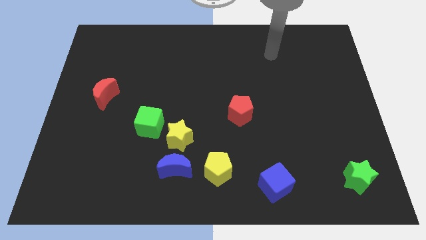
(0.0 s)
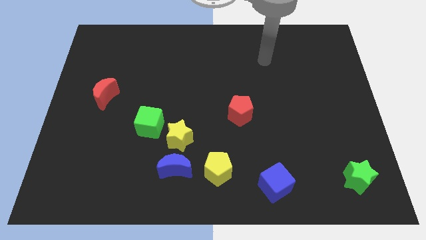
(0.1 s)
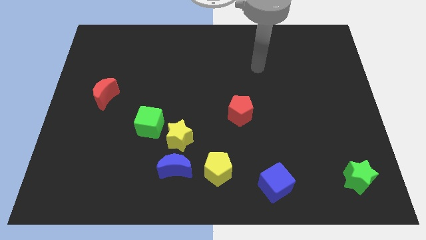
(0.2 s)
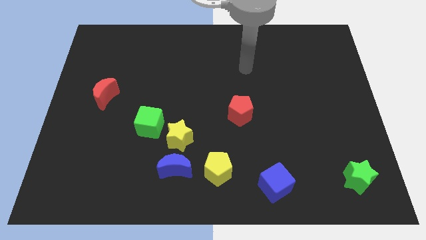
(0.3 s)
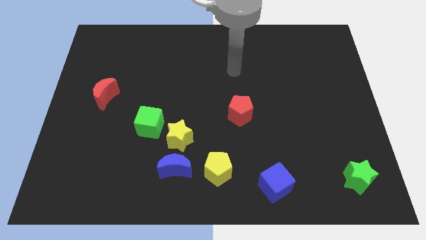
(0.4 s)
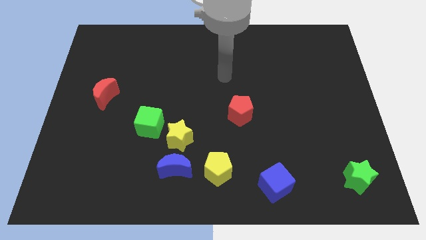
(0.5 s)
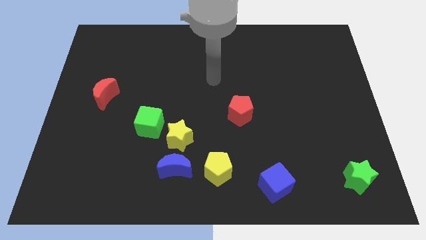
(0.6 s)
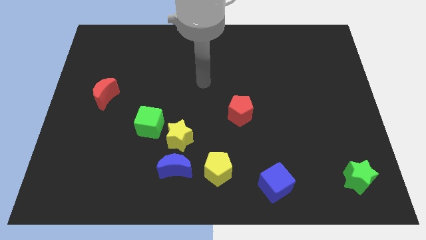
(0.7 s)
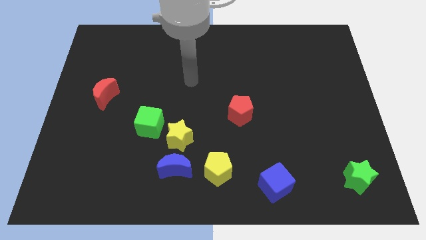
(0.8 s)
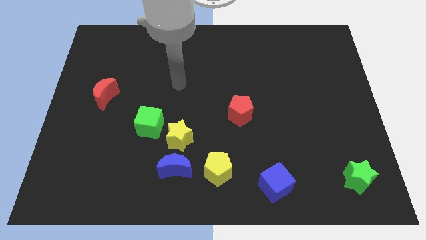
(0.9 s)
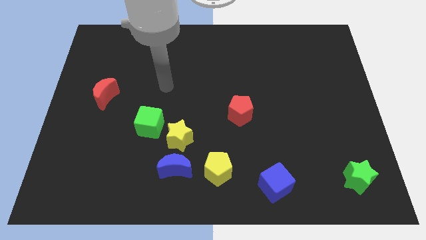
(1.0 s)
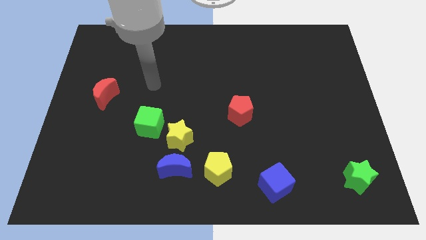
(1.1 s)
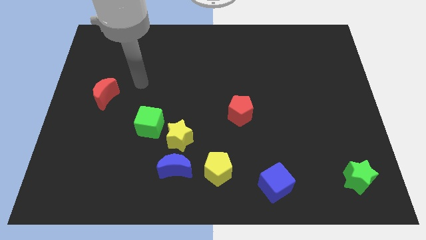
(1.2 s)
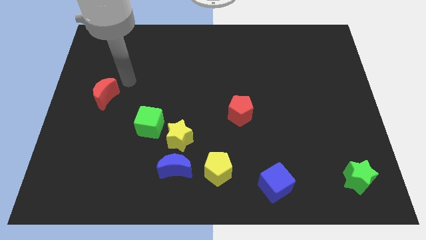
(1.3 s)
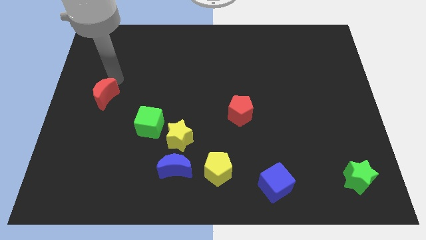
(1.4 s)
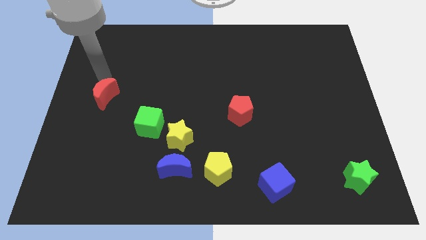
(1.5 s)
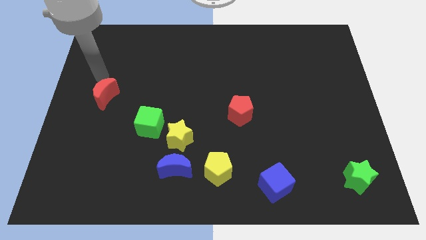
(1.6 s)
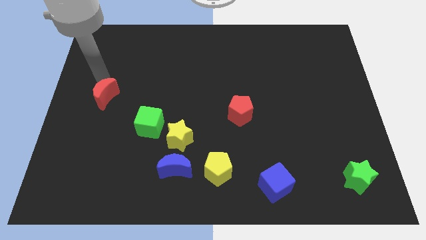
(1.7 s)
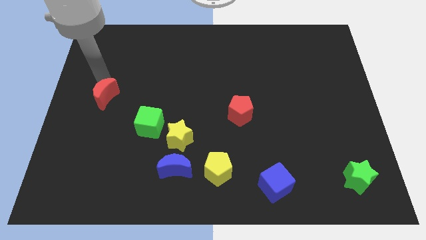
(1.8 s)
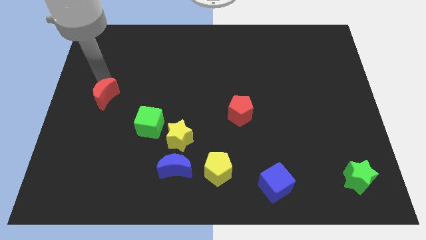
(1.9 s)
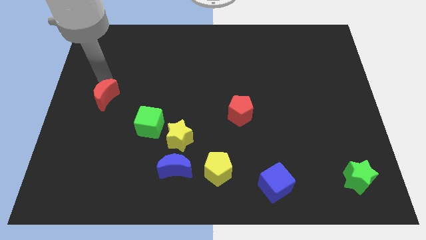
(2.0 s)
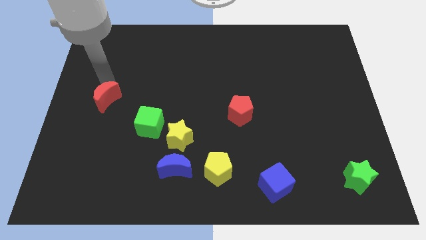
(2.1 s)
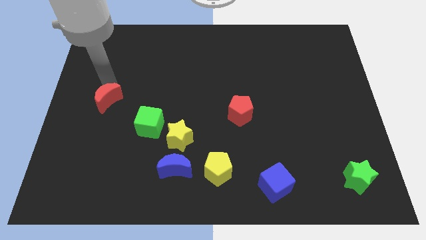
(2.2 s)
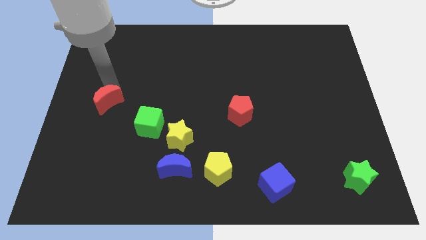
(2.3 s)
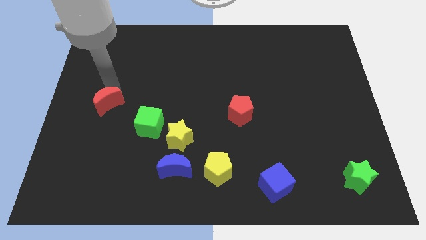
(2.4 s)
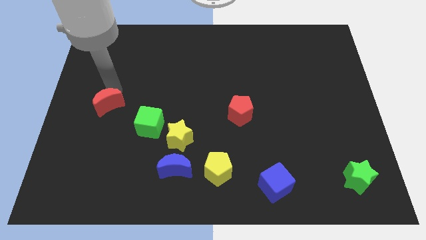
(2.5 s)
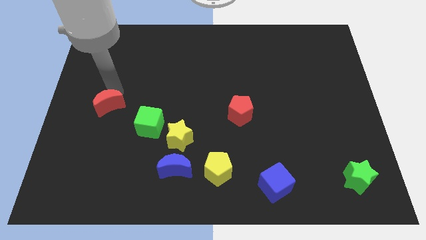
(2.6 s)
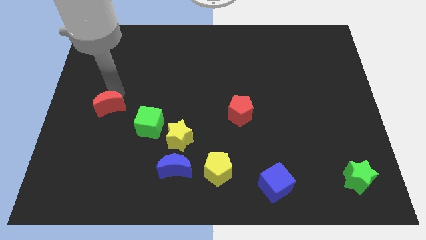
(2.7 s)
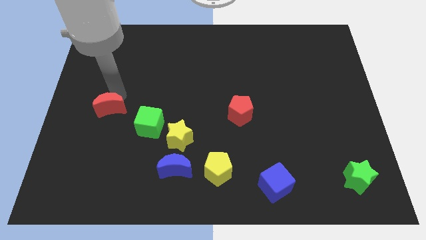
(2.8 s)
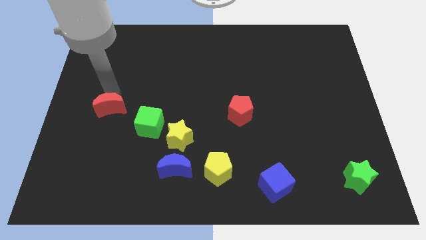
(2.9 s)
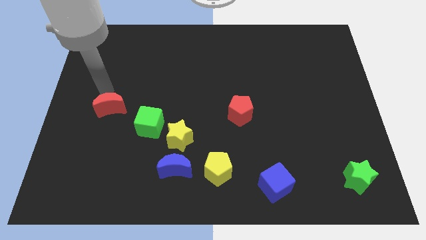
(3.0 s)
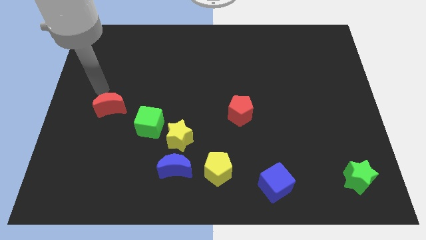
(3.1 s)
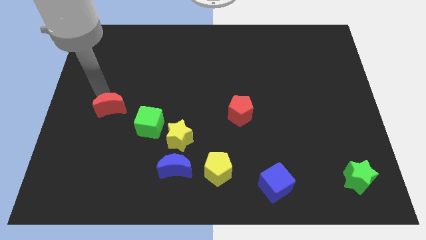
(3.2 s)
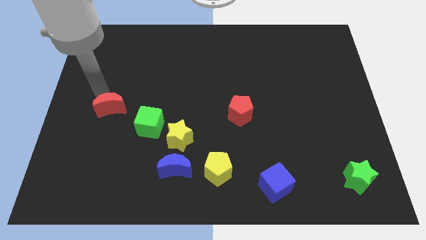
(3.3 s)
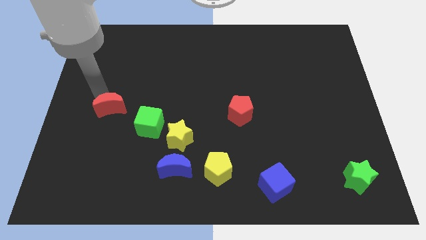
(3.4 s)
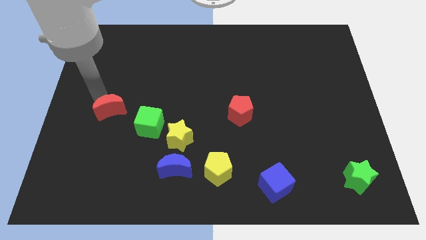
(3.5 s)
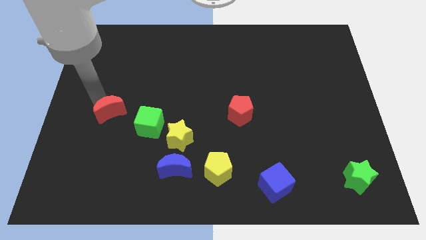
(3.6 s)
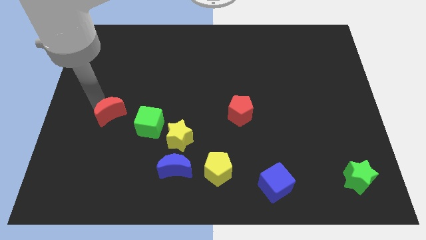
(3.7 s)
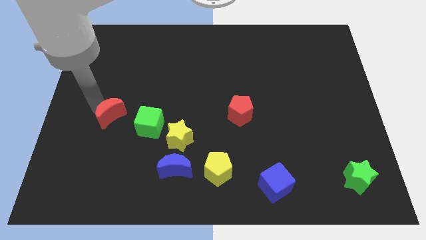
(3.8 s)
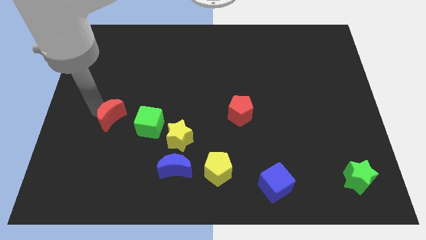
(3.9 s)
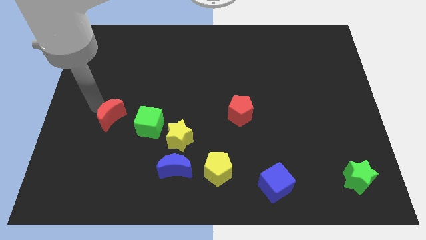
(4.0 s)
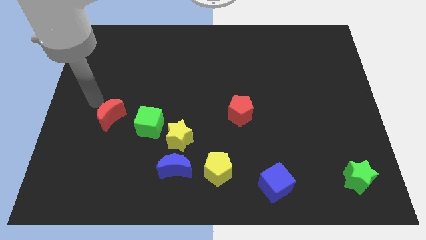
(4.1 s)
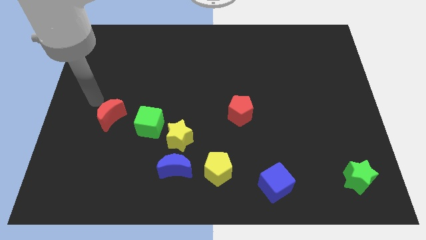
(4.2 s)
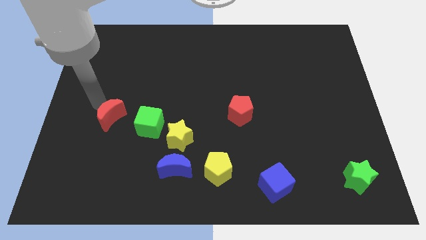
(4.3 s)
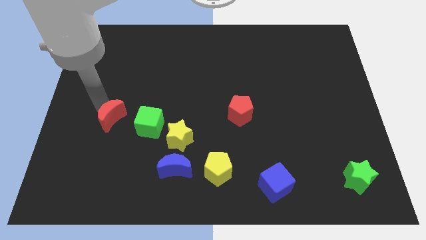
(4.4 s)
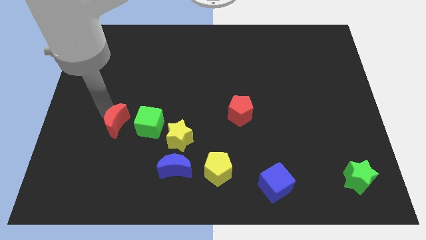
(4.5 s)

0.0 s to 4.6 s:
slide the red moon down and right somewhat

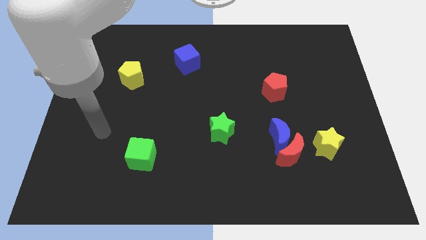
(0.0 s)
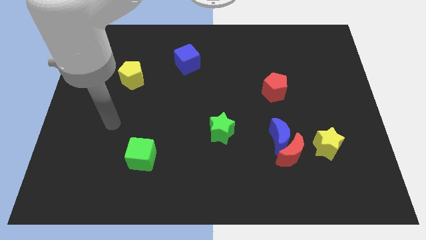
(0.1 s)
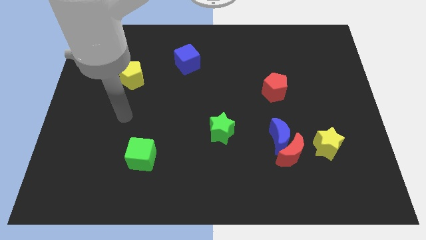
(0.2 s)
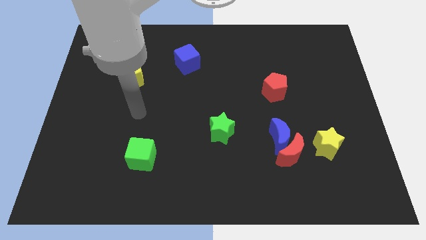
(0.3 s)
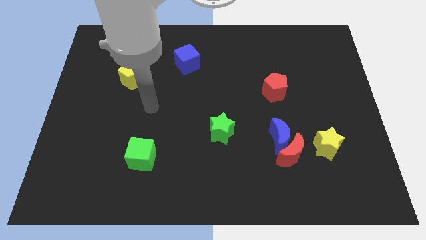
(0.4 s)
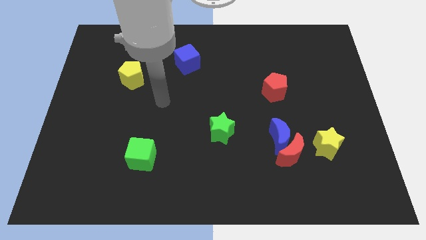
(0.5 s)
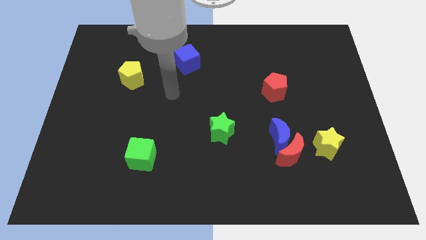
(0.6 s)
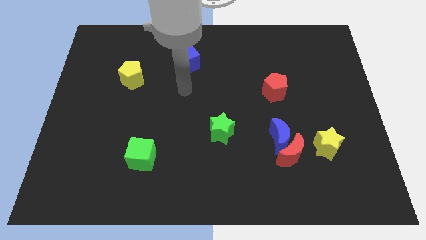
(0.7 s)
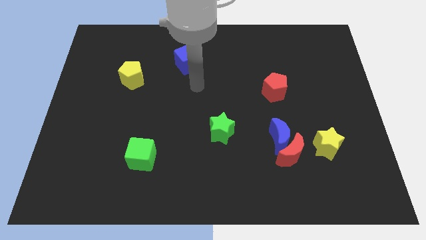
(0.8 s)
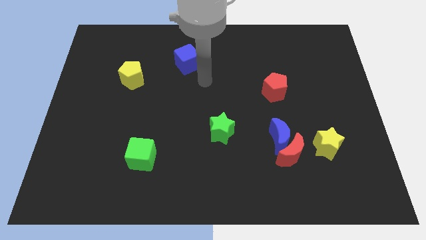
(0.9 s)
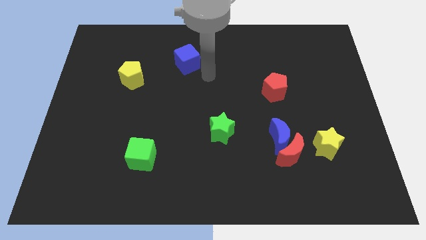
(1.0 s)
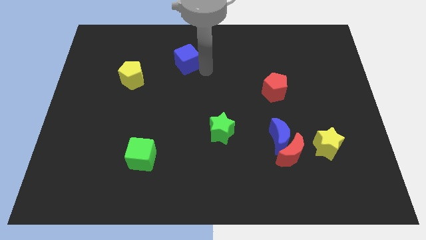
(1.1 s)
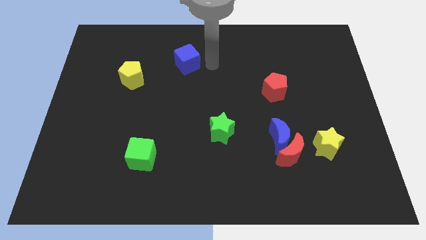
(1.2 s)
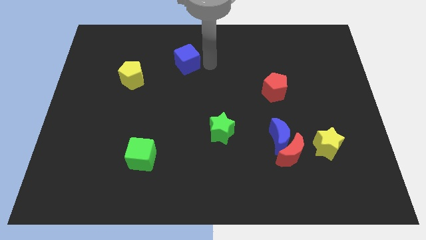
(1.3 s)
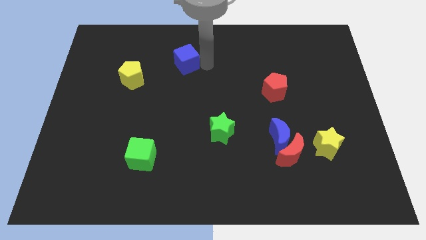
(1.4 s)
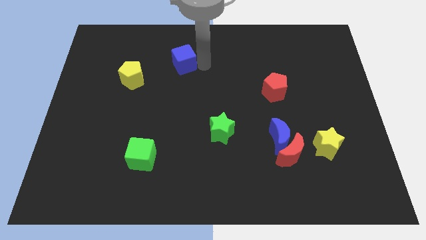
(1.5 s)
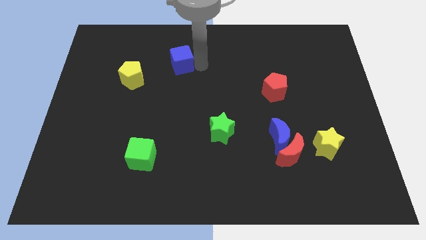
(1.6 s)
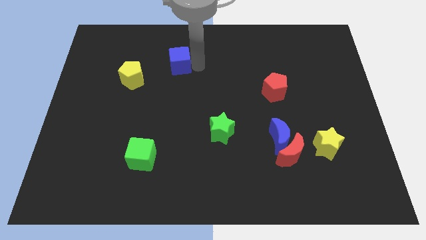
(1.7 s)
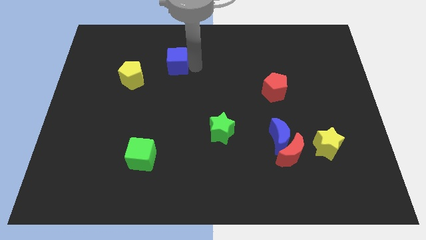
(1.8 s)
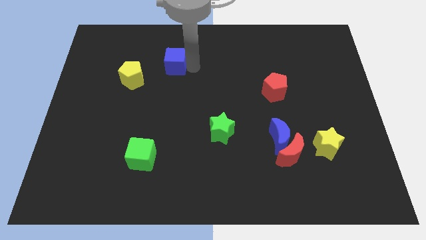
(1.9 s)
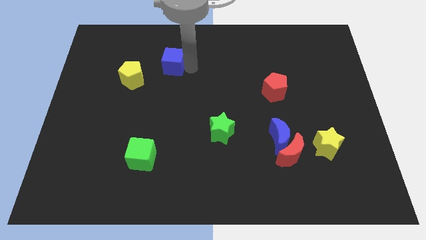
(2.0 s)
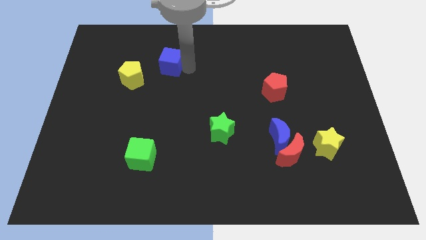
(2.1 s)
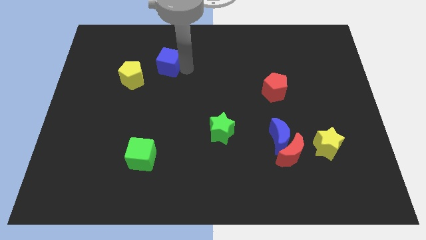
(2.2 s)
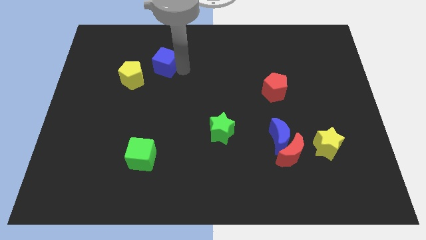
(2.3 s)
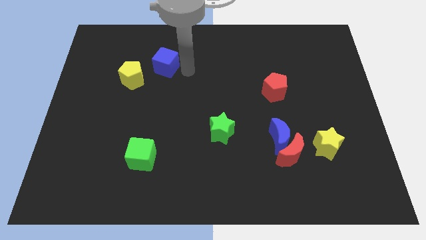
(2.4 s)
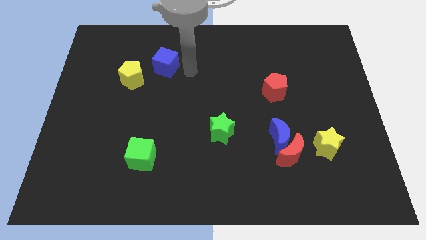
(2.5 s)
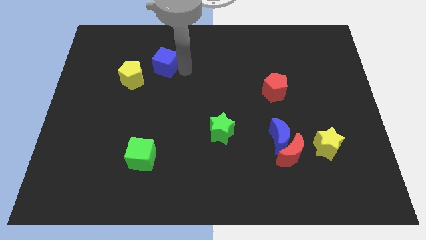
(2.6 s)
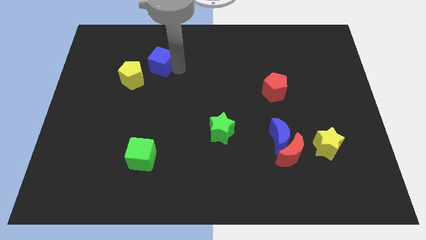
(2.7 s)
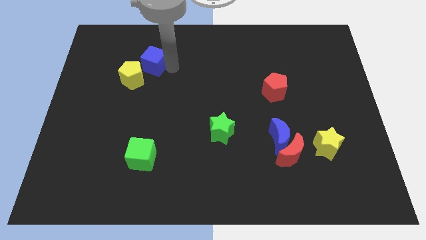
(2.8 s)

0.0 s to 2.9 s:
slightly slide the blue cube left

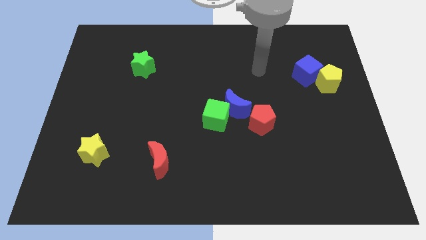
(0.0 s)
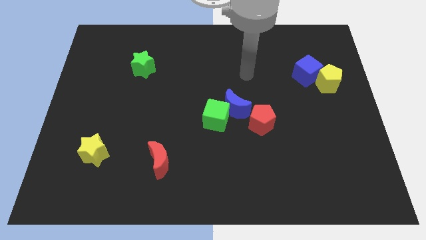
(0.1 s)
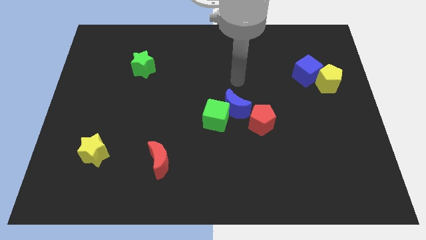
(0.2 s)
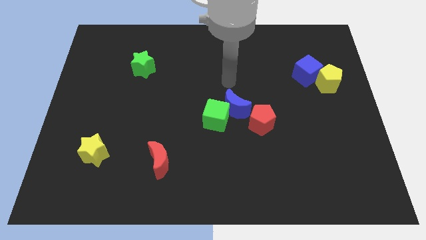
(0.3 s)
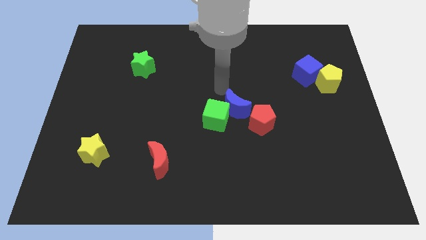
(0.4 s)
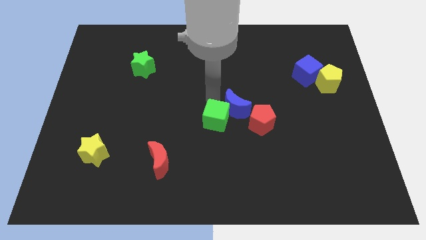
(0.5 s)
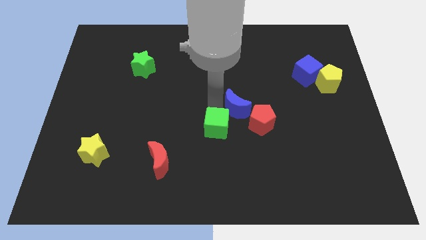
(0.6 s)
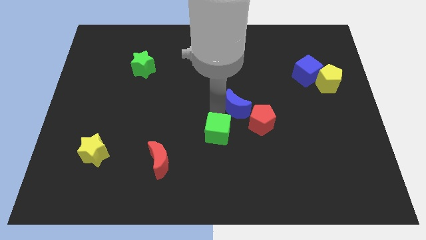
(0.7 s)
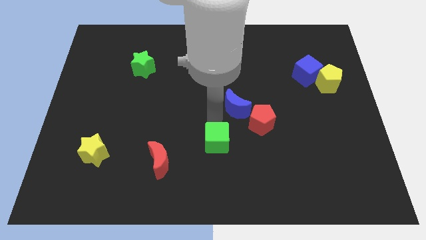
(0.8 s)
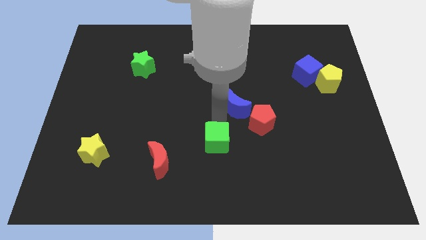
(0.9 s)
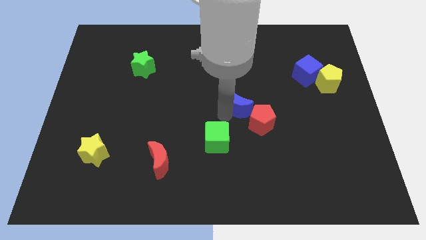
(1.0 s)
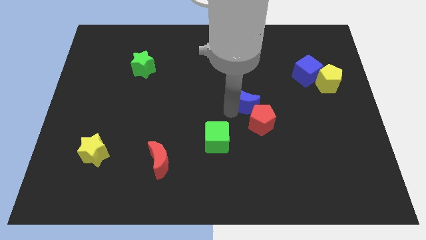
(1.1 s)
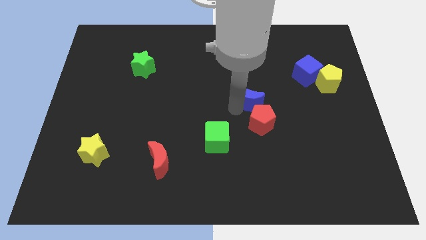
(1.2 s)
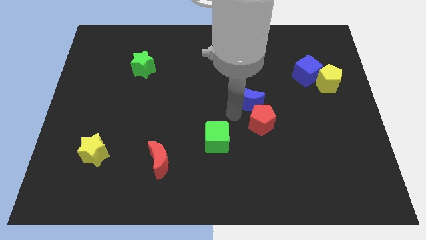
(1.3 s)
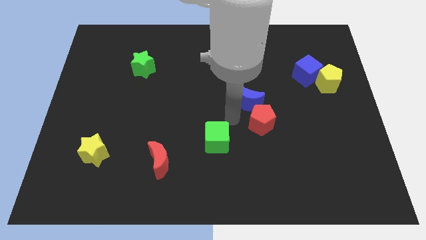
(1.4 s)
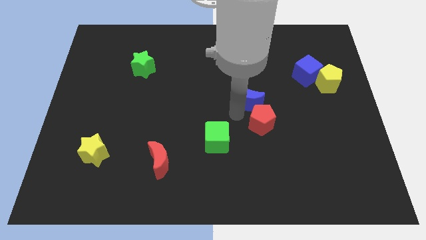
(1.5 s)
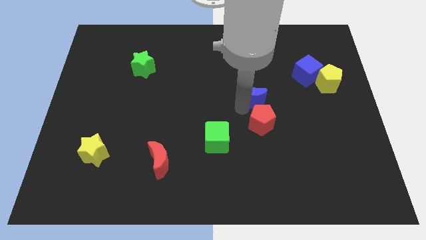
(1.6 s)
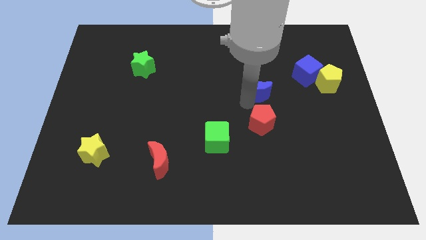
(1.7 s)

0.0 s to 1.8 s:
slightly move the blue moon up and right diagonally
